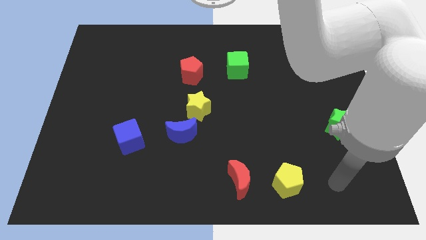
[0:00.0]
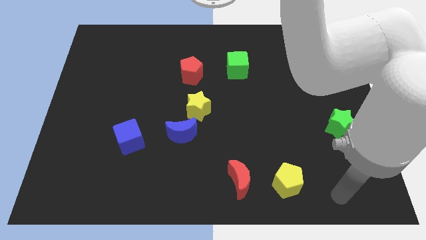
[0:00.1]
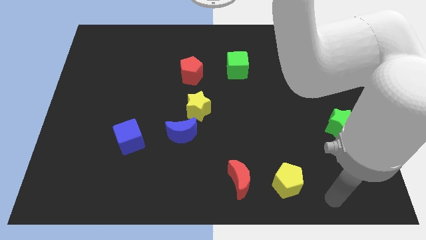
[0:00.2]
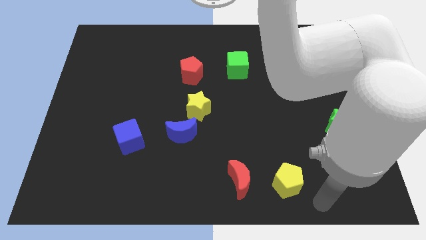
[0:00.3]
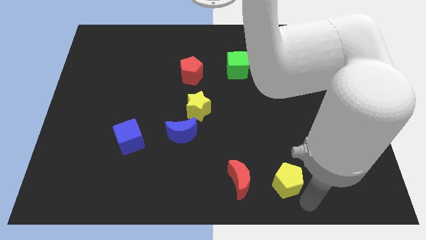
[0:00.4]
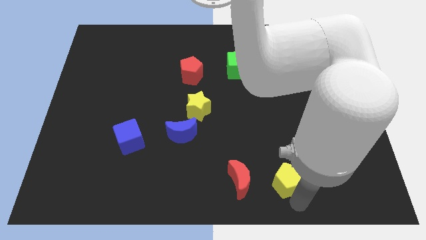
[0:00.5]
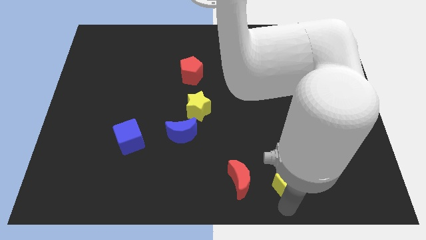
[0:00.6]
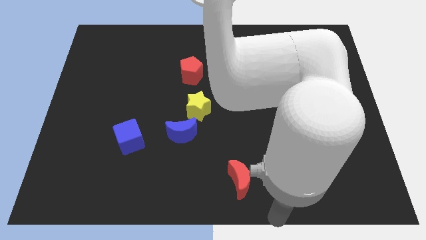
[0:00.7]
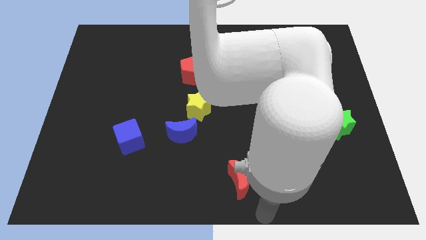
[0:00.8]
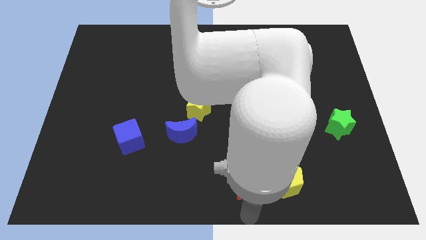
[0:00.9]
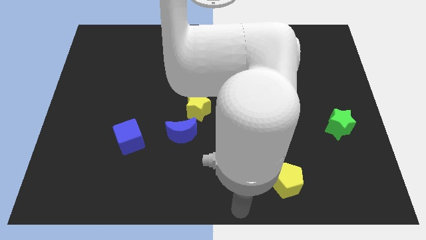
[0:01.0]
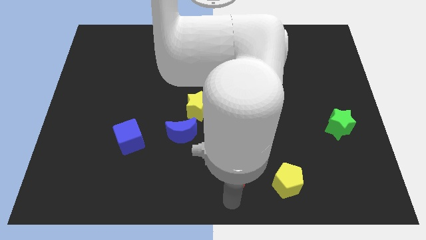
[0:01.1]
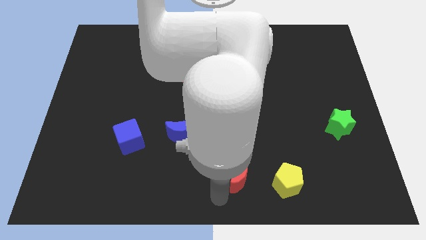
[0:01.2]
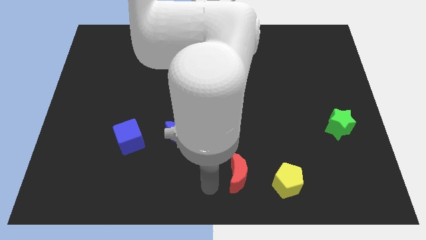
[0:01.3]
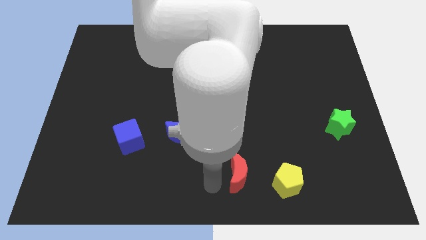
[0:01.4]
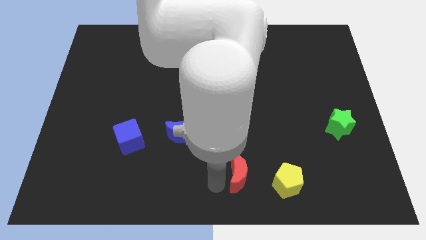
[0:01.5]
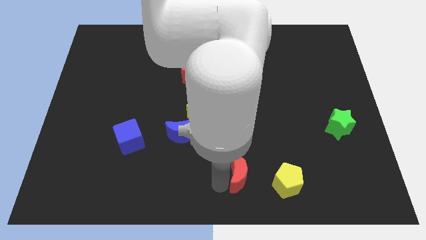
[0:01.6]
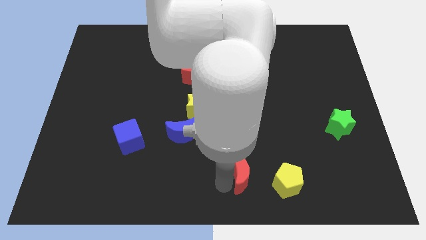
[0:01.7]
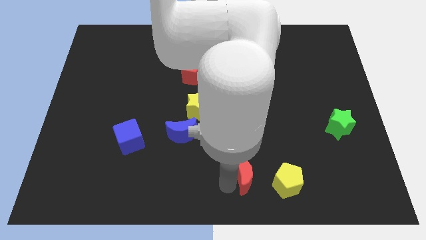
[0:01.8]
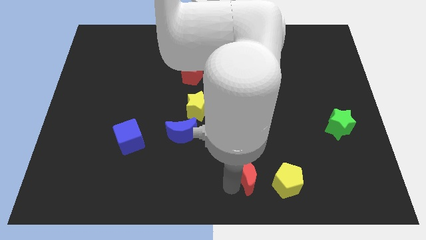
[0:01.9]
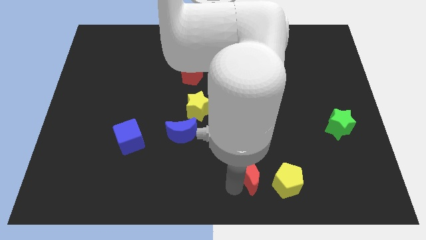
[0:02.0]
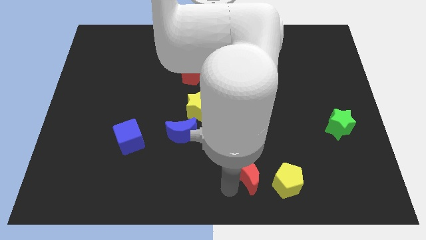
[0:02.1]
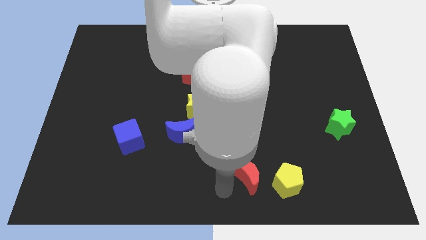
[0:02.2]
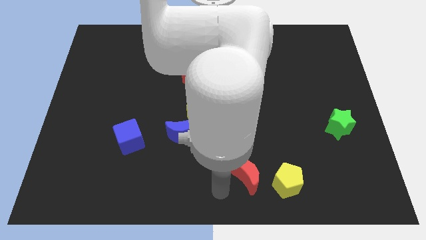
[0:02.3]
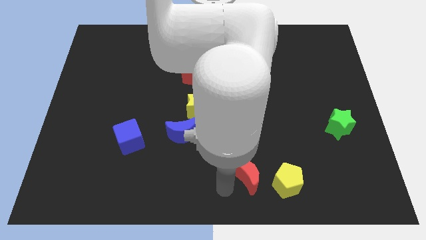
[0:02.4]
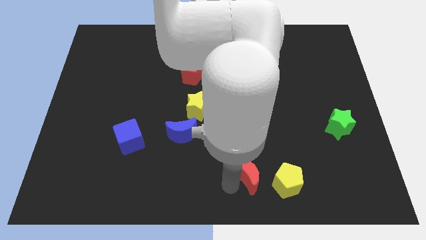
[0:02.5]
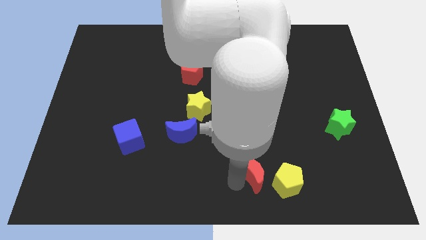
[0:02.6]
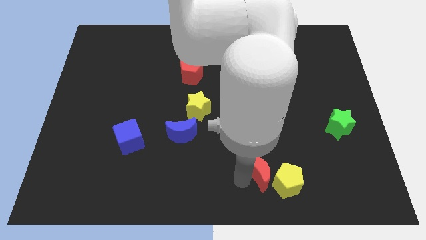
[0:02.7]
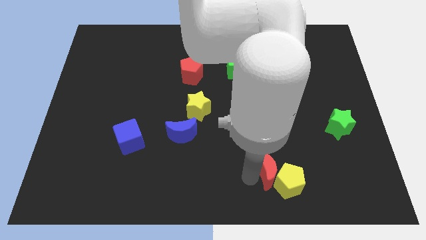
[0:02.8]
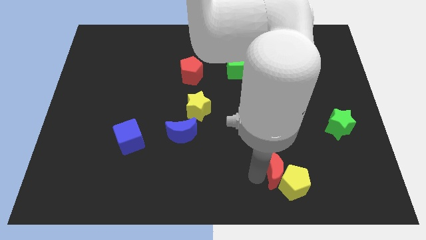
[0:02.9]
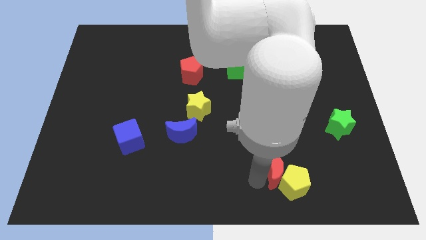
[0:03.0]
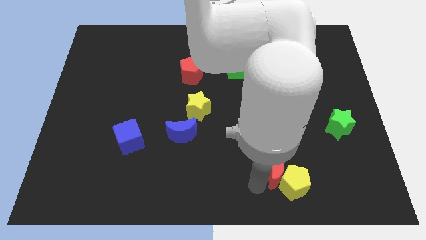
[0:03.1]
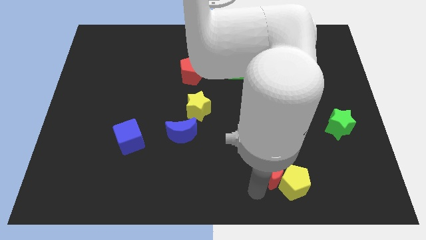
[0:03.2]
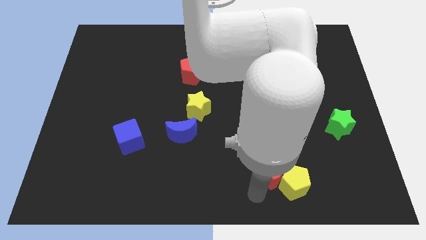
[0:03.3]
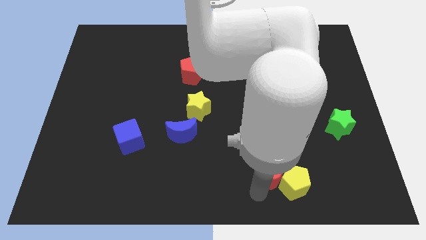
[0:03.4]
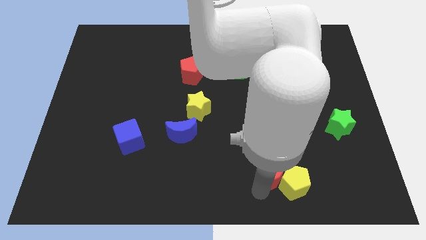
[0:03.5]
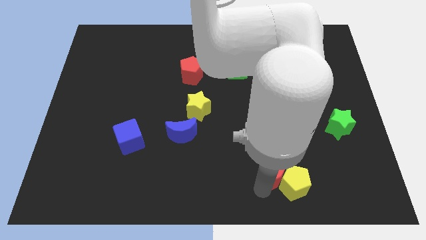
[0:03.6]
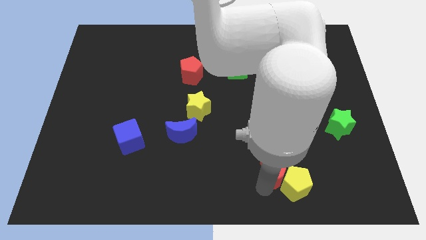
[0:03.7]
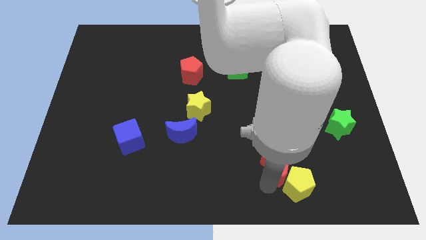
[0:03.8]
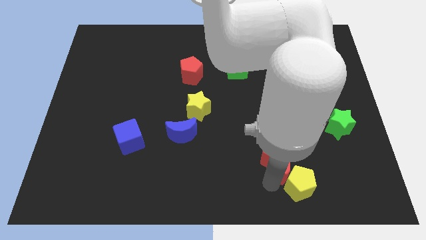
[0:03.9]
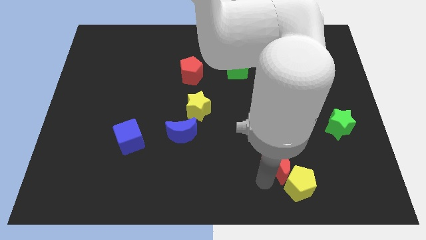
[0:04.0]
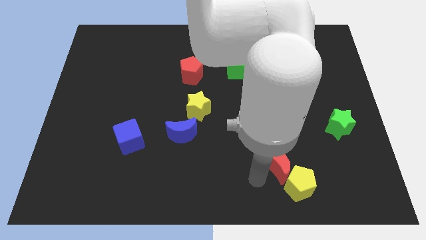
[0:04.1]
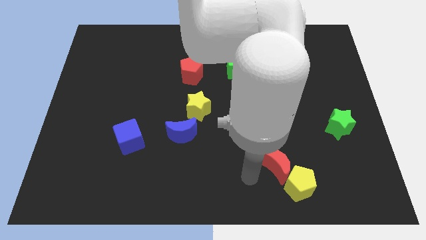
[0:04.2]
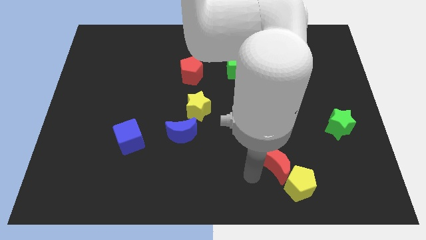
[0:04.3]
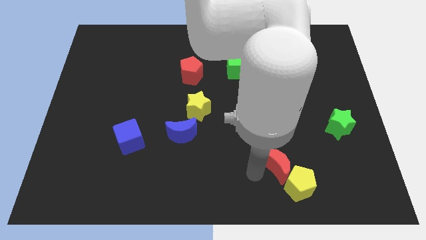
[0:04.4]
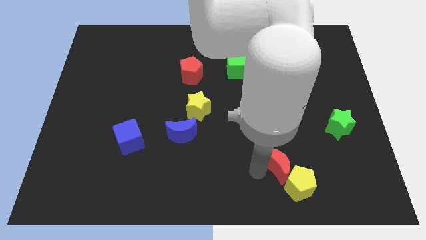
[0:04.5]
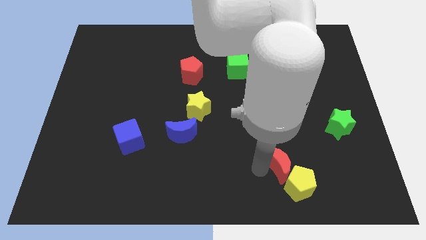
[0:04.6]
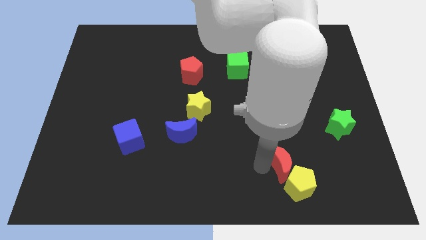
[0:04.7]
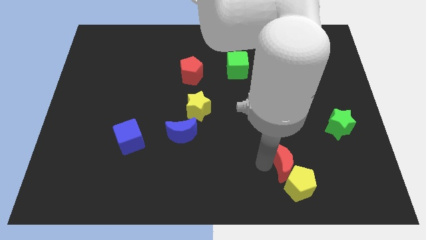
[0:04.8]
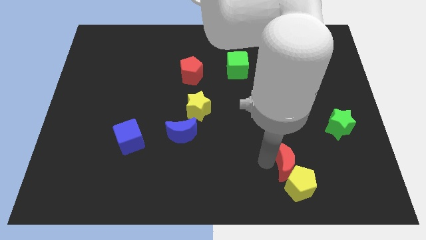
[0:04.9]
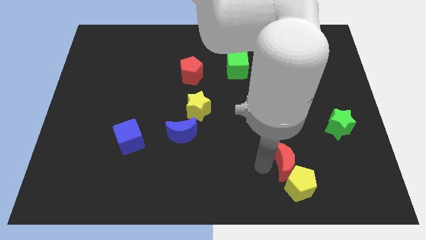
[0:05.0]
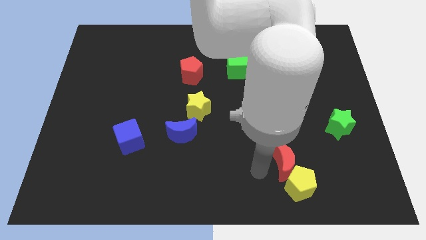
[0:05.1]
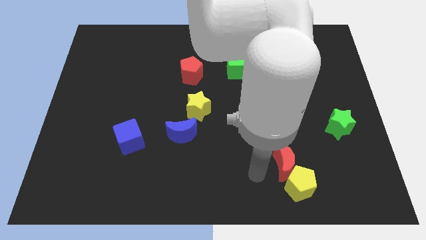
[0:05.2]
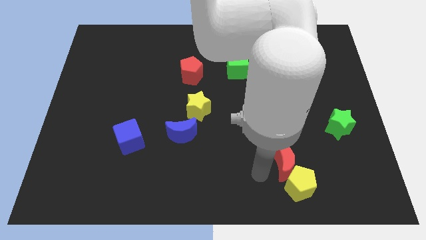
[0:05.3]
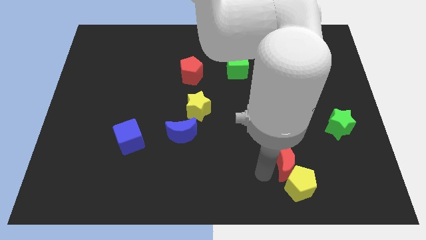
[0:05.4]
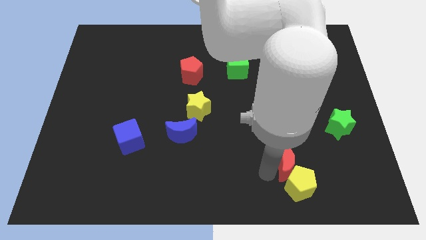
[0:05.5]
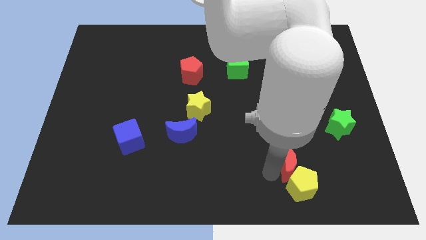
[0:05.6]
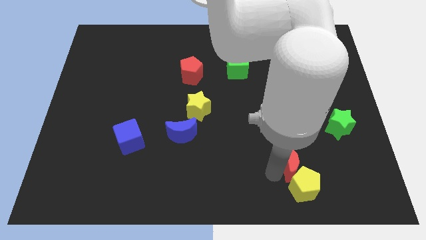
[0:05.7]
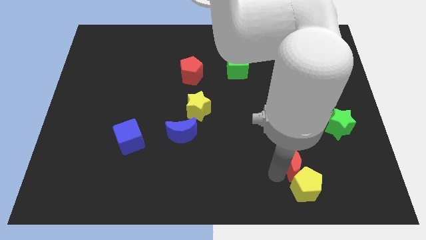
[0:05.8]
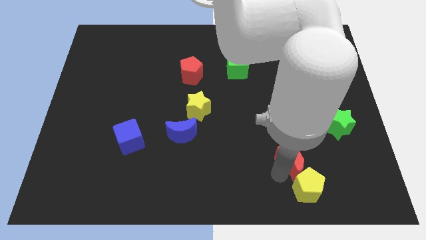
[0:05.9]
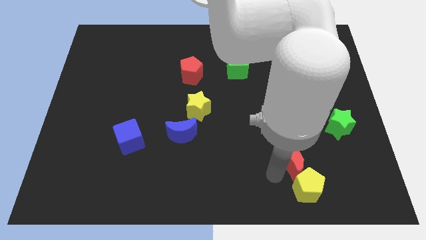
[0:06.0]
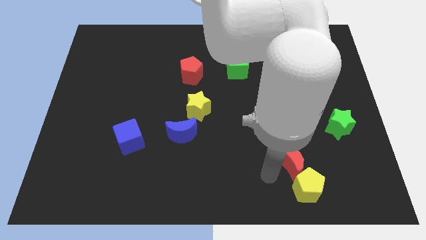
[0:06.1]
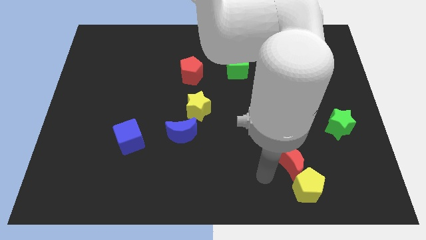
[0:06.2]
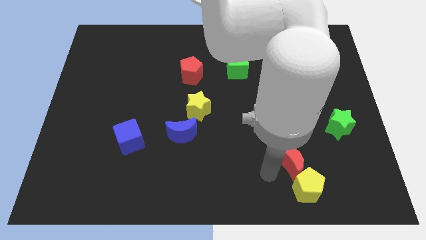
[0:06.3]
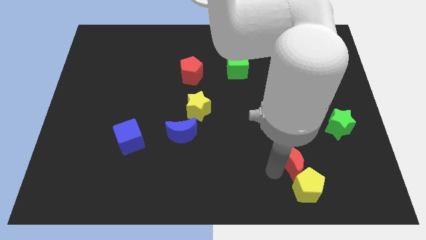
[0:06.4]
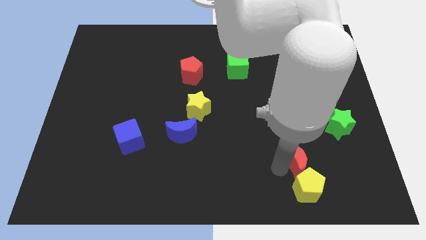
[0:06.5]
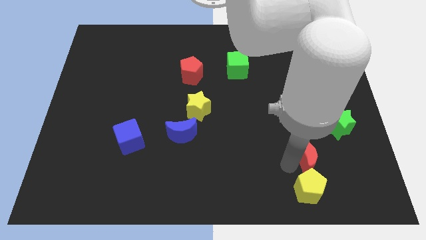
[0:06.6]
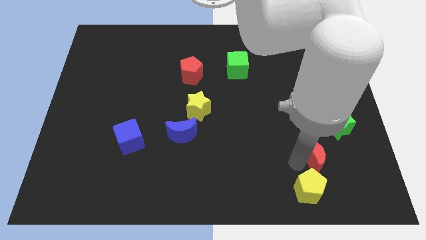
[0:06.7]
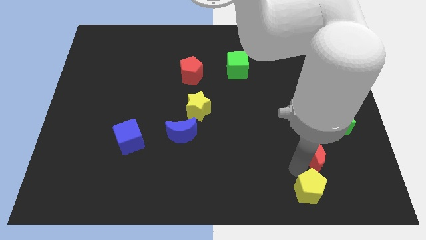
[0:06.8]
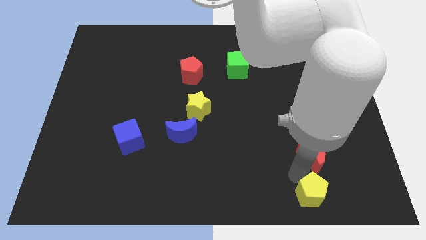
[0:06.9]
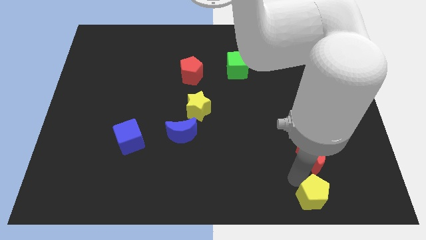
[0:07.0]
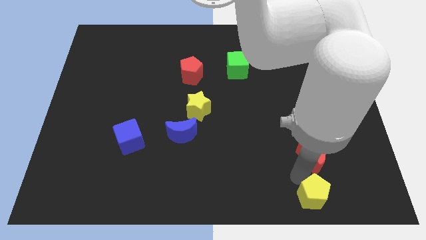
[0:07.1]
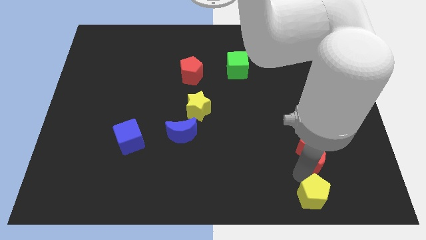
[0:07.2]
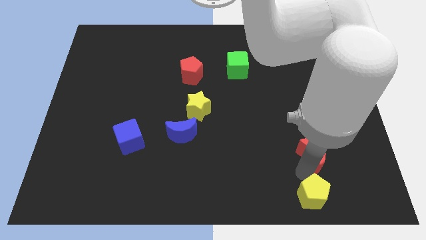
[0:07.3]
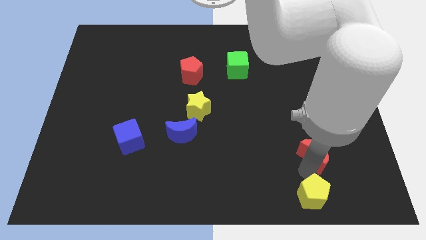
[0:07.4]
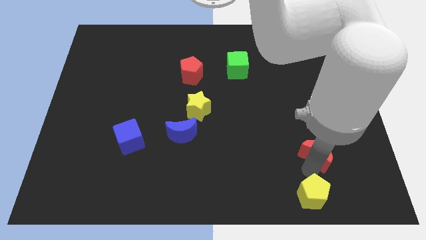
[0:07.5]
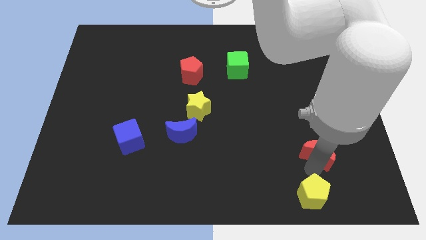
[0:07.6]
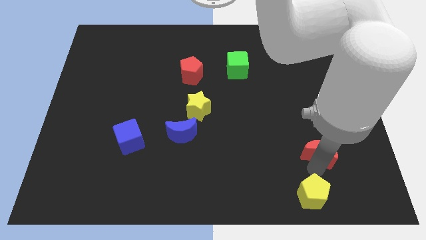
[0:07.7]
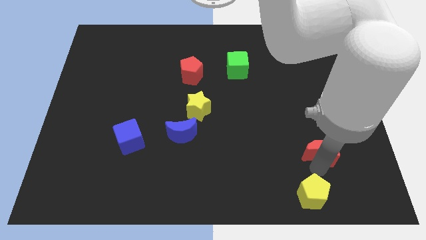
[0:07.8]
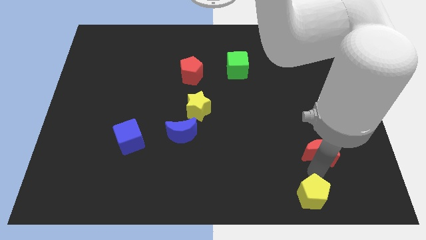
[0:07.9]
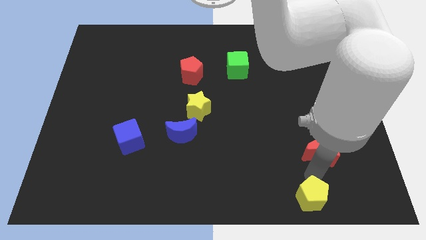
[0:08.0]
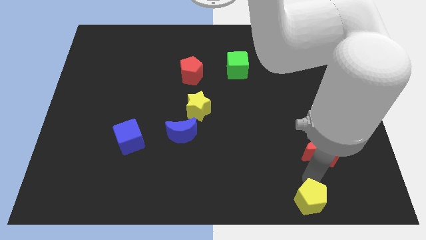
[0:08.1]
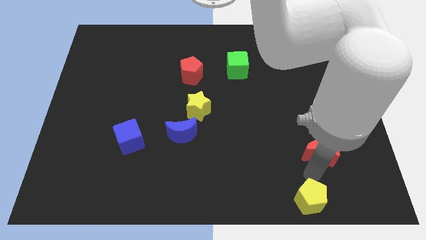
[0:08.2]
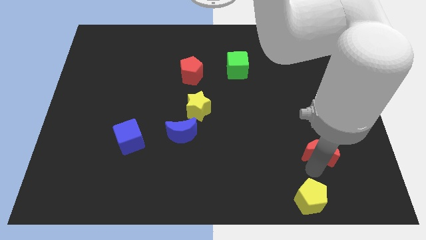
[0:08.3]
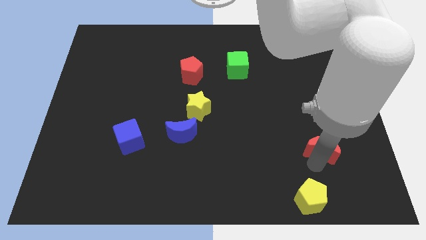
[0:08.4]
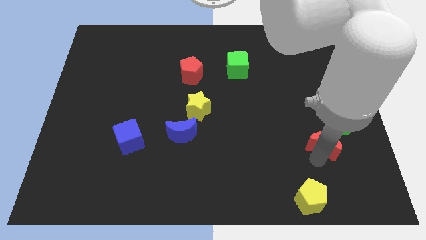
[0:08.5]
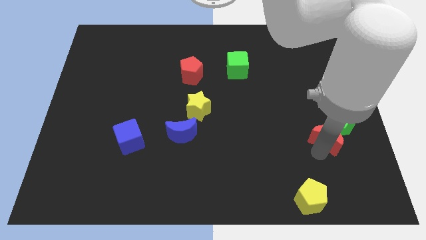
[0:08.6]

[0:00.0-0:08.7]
slide the red moon towards the green star
